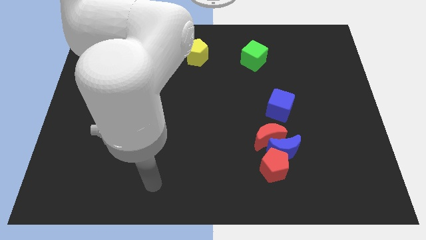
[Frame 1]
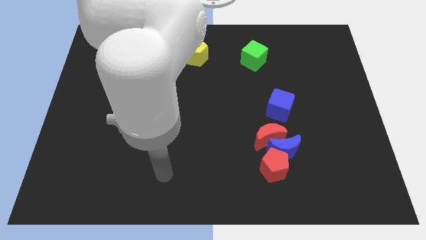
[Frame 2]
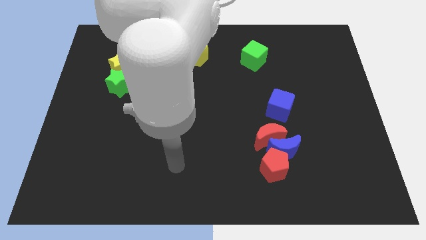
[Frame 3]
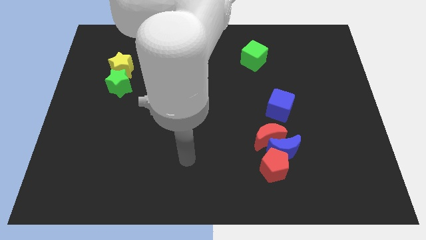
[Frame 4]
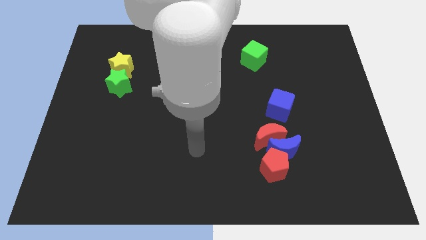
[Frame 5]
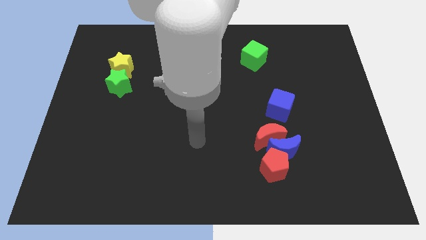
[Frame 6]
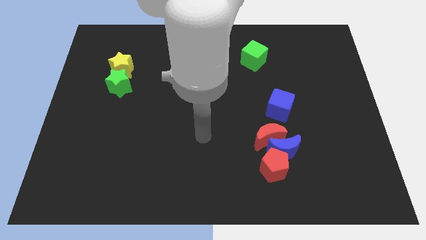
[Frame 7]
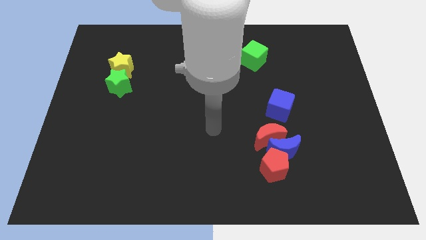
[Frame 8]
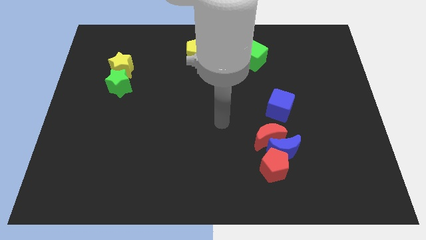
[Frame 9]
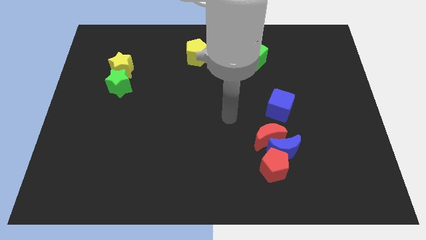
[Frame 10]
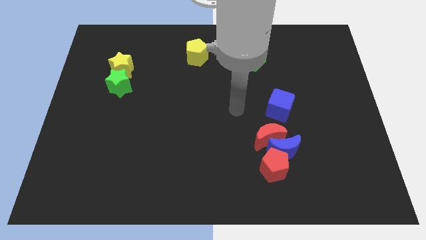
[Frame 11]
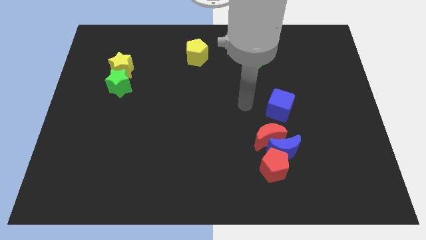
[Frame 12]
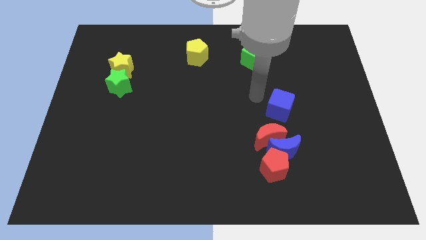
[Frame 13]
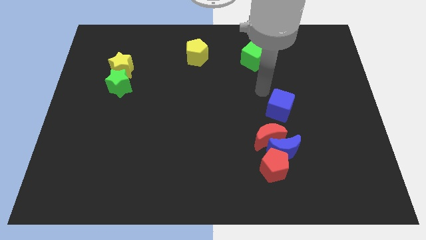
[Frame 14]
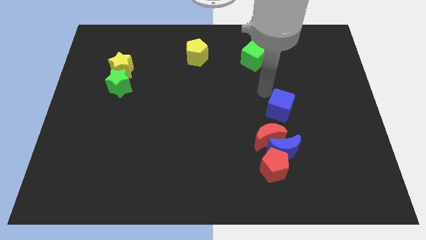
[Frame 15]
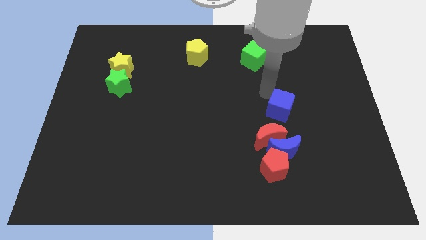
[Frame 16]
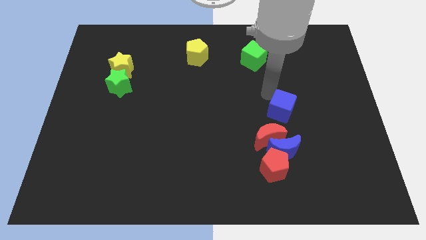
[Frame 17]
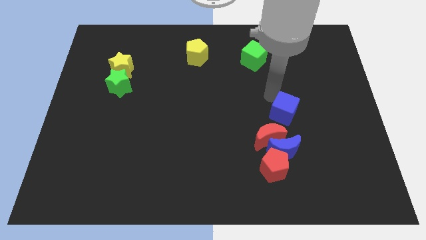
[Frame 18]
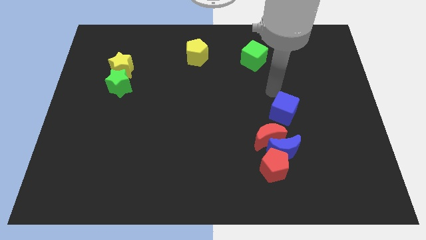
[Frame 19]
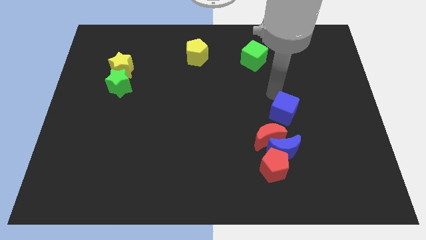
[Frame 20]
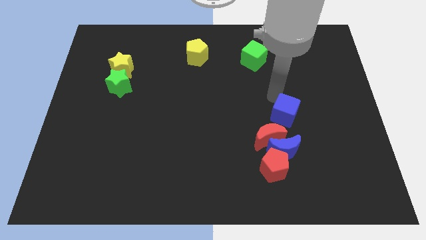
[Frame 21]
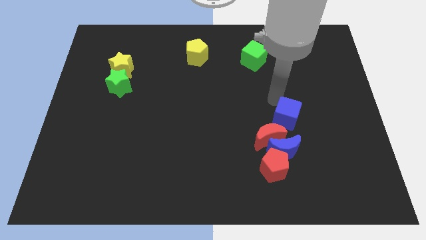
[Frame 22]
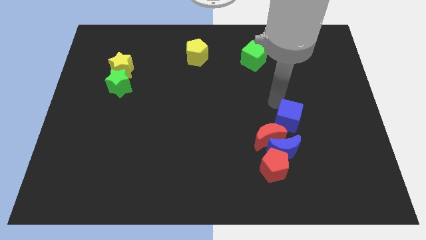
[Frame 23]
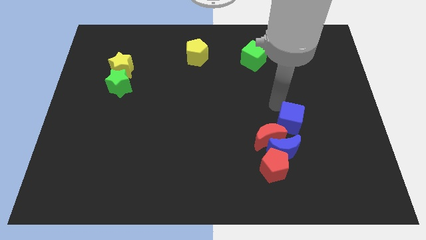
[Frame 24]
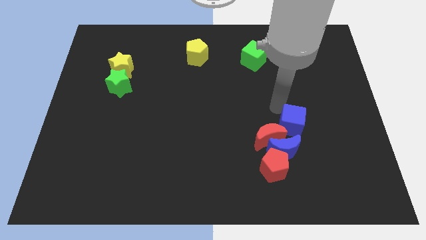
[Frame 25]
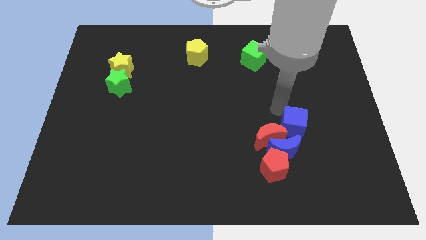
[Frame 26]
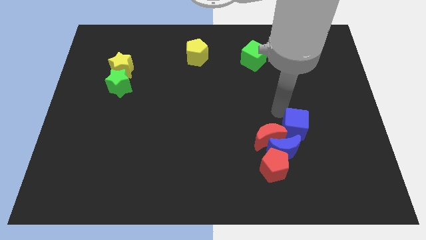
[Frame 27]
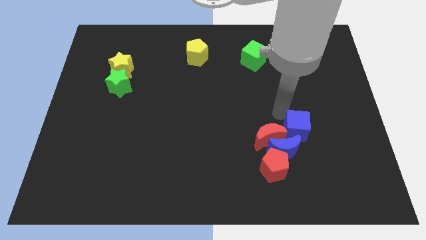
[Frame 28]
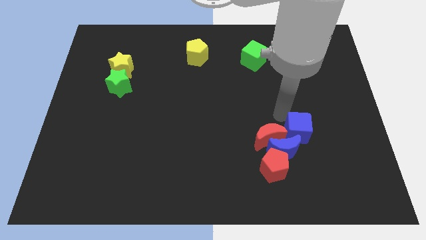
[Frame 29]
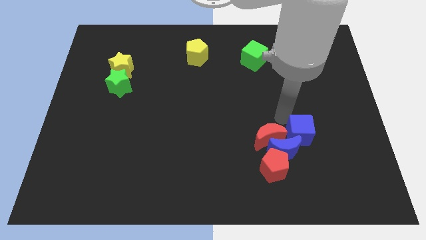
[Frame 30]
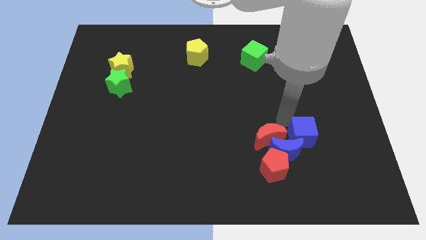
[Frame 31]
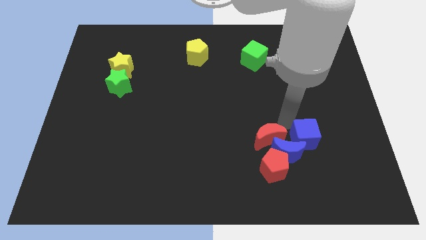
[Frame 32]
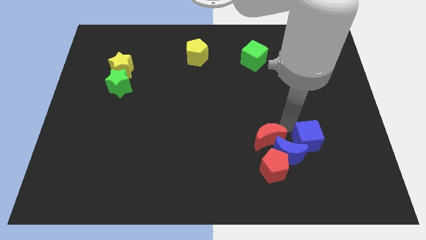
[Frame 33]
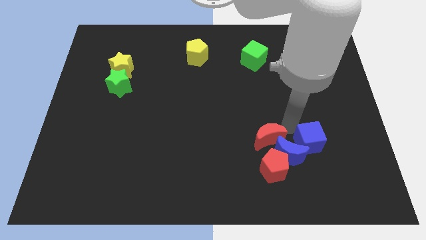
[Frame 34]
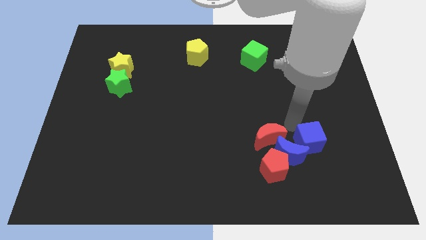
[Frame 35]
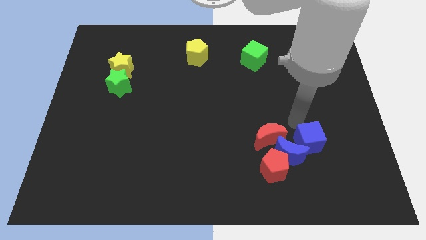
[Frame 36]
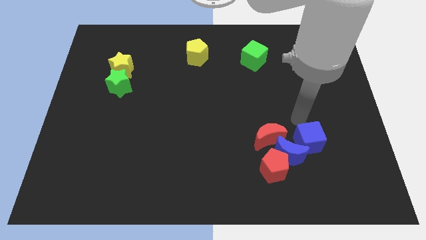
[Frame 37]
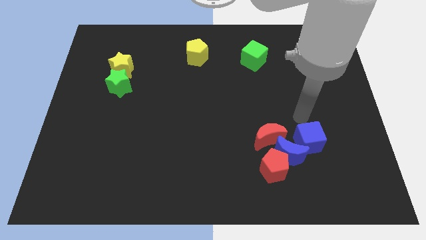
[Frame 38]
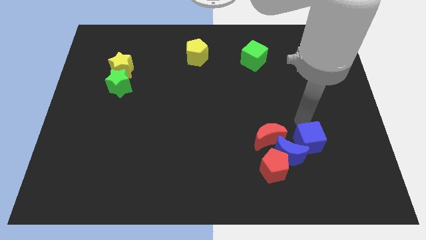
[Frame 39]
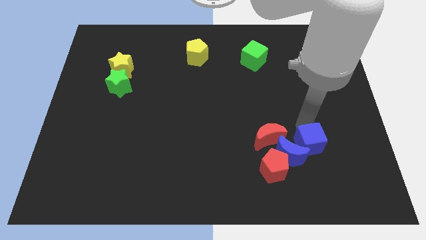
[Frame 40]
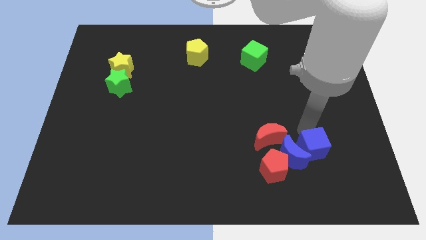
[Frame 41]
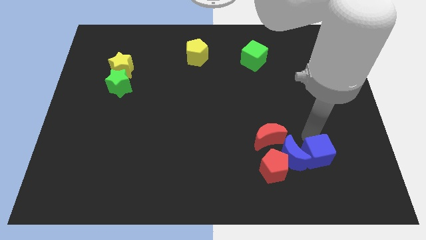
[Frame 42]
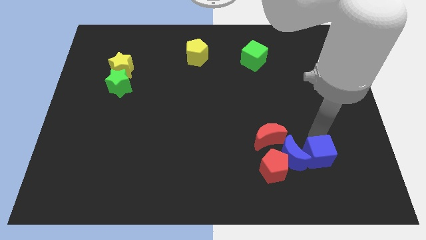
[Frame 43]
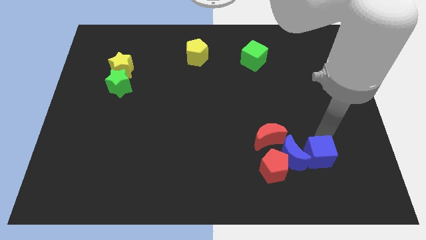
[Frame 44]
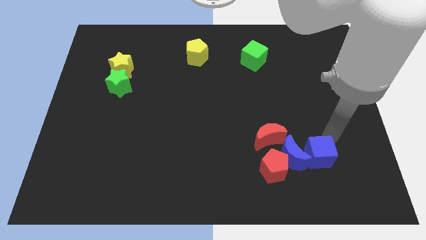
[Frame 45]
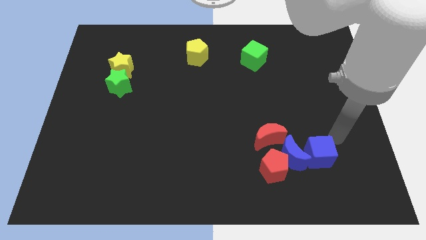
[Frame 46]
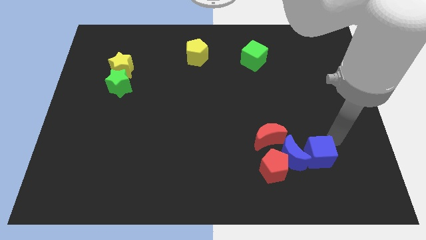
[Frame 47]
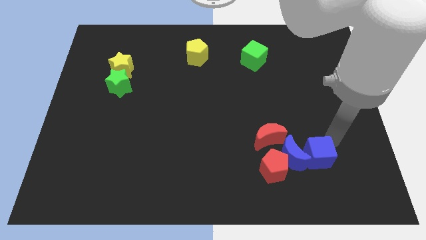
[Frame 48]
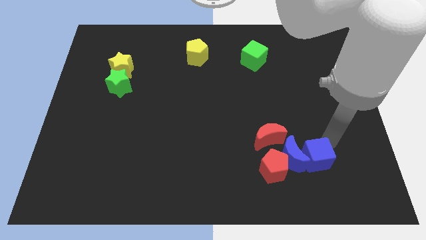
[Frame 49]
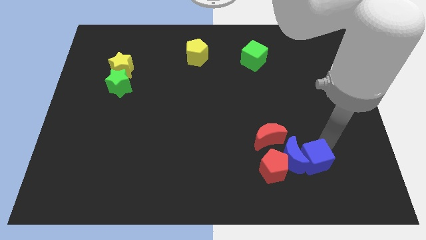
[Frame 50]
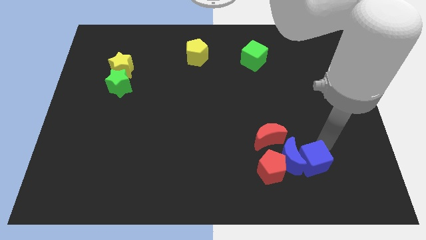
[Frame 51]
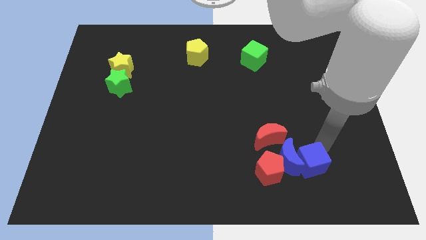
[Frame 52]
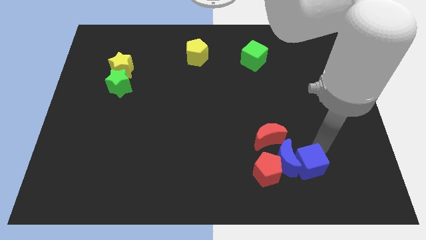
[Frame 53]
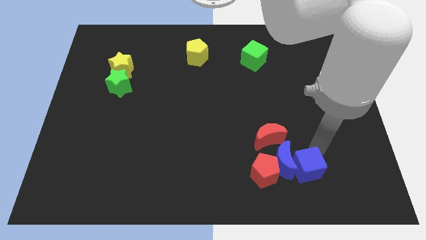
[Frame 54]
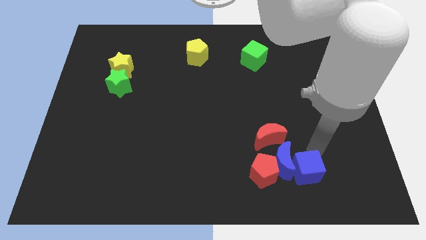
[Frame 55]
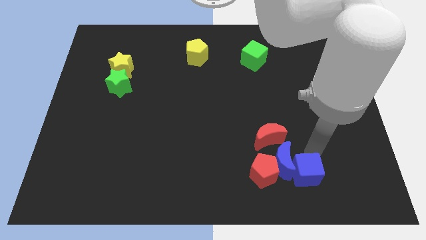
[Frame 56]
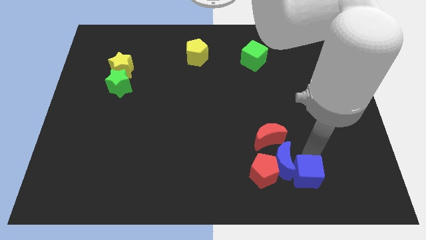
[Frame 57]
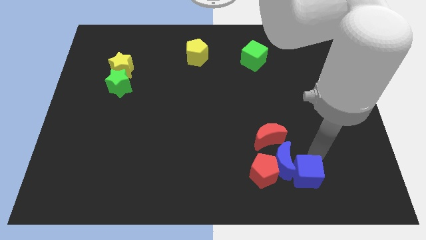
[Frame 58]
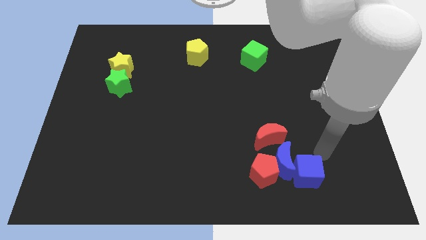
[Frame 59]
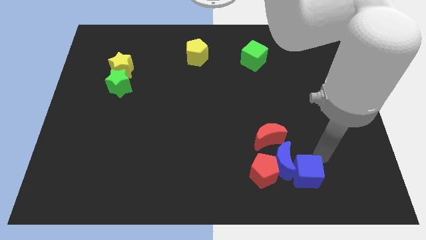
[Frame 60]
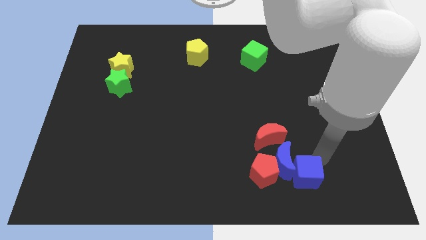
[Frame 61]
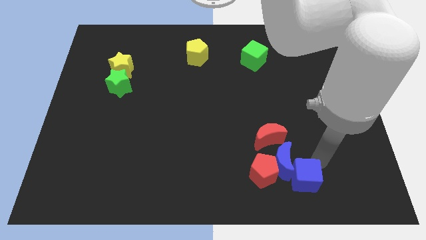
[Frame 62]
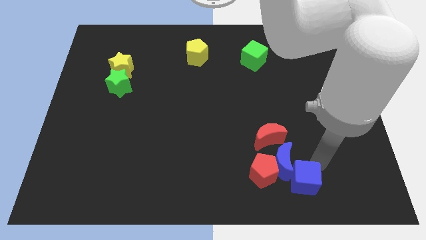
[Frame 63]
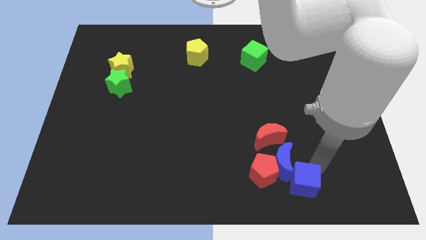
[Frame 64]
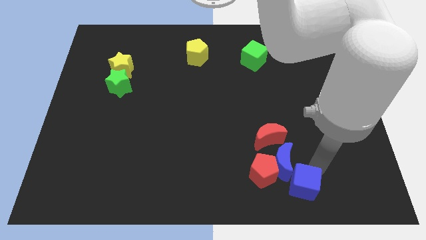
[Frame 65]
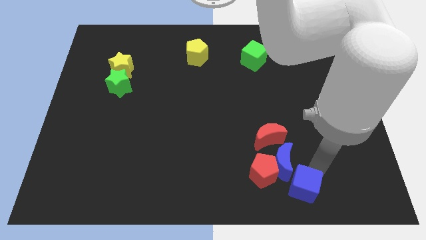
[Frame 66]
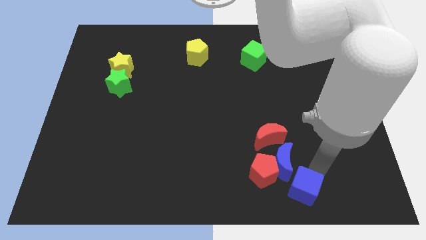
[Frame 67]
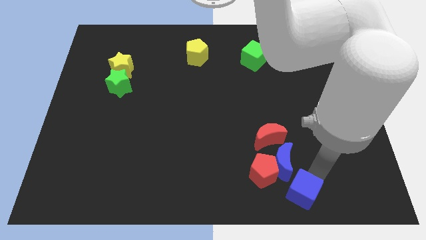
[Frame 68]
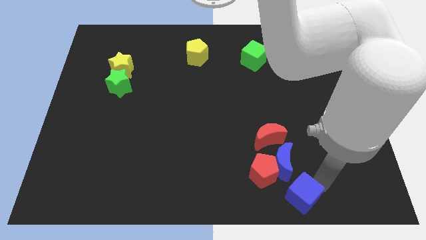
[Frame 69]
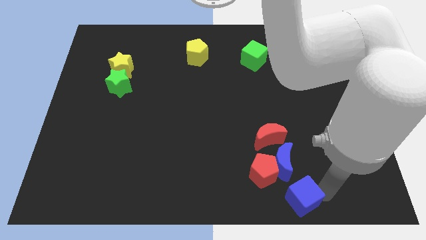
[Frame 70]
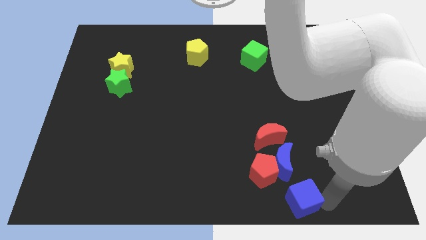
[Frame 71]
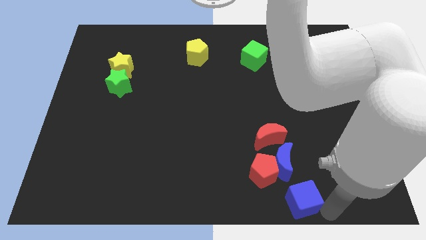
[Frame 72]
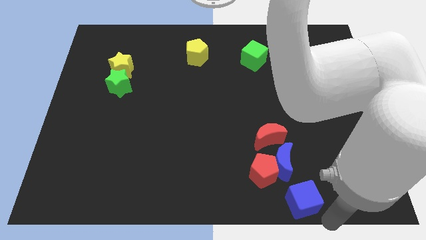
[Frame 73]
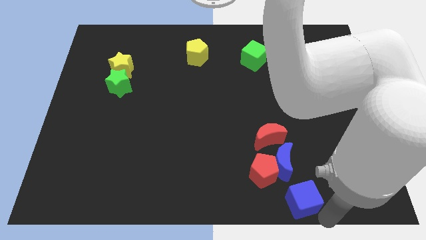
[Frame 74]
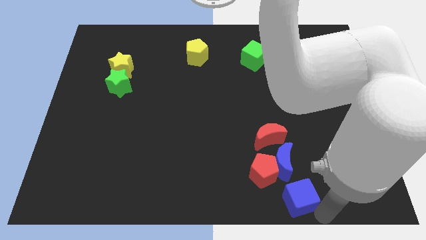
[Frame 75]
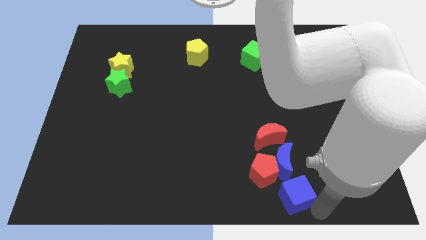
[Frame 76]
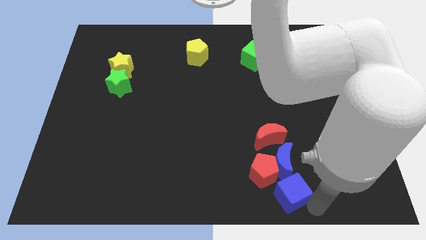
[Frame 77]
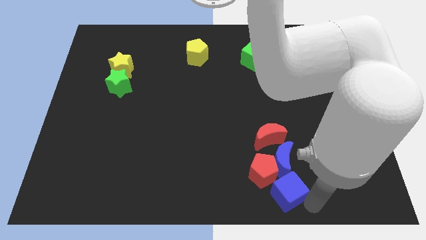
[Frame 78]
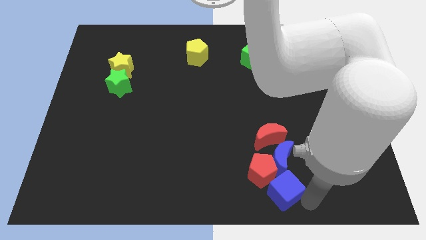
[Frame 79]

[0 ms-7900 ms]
push the blue cube close to the red pentagon

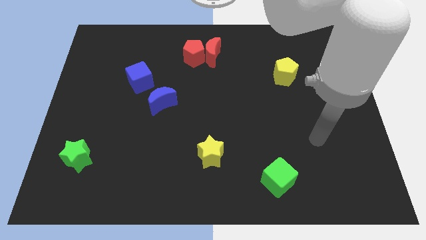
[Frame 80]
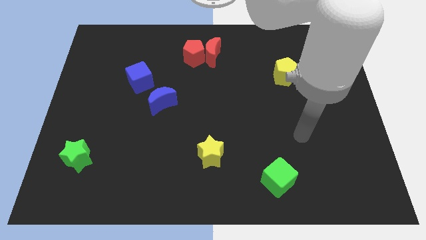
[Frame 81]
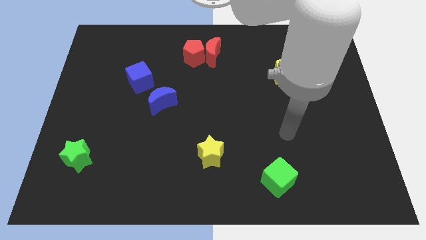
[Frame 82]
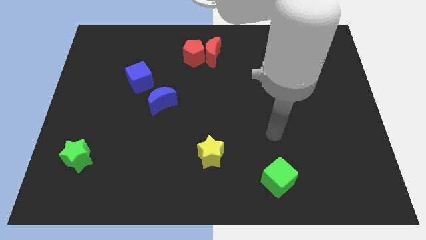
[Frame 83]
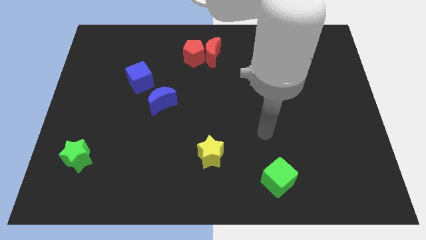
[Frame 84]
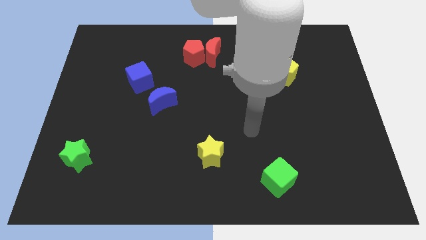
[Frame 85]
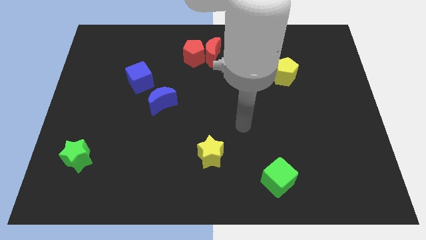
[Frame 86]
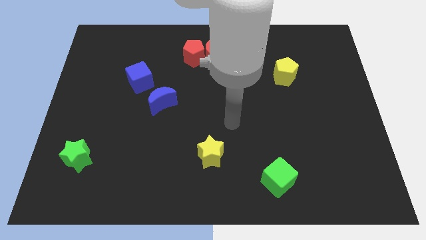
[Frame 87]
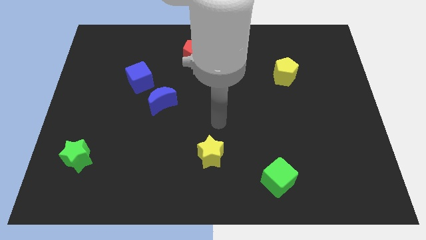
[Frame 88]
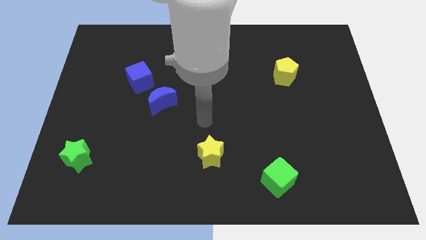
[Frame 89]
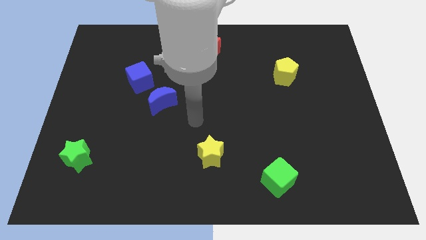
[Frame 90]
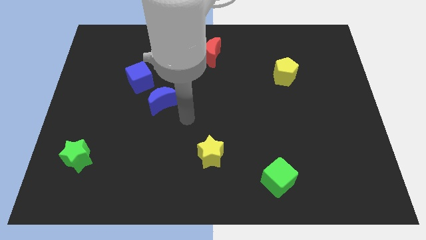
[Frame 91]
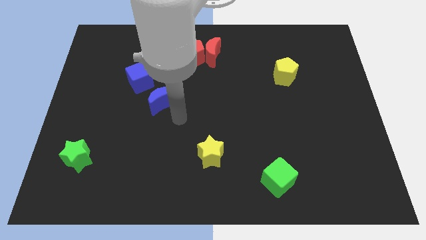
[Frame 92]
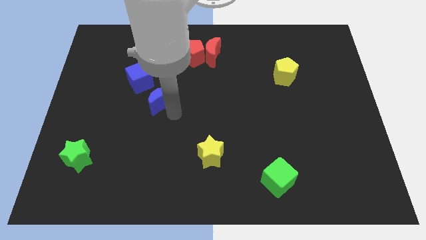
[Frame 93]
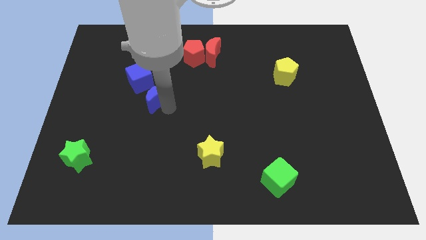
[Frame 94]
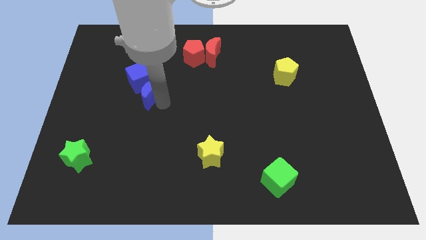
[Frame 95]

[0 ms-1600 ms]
slide the blue moon close to the blue cube
